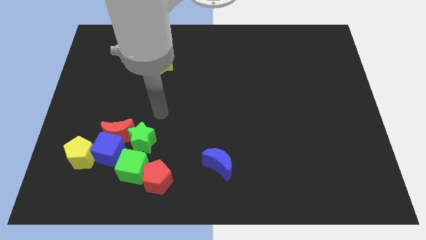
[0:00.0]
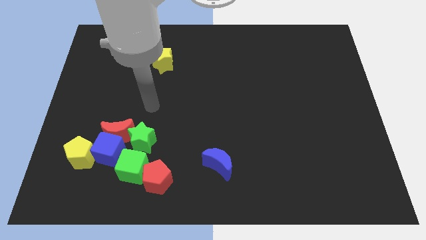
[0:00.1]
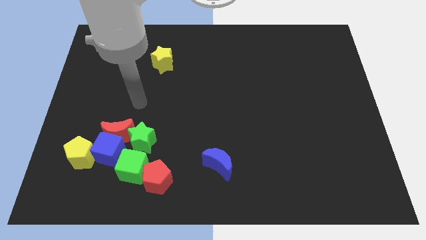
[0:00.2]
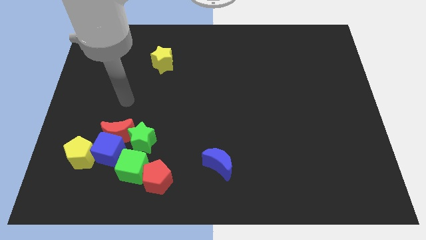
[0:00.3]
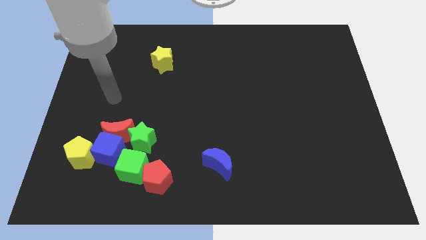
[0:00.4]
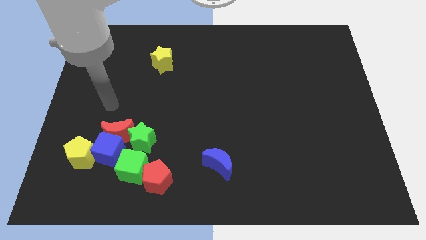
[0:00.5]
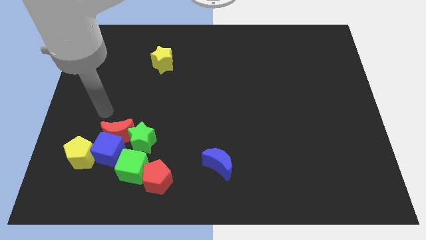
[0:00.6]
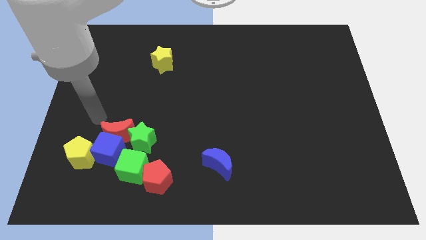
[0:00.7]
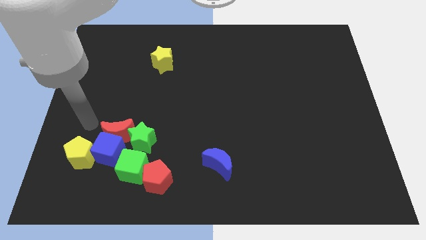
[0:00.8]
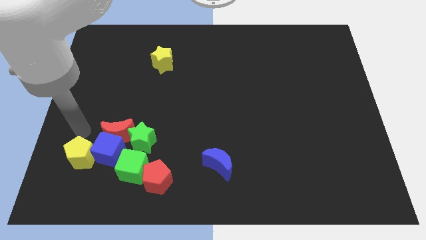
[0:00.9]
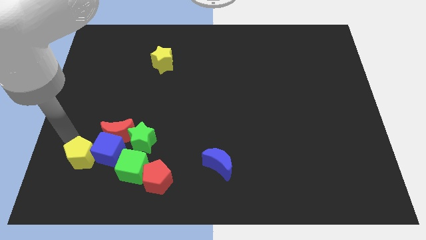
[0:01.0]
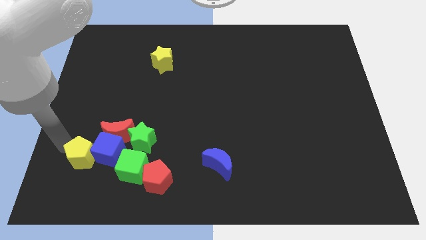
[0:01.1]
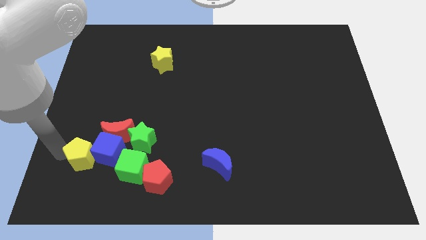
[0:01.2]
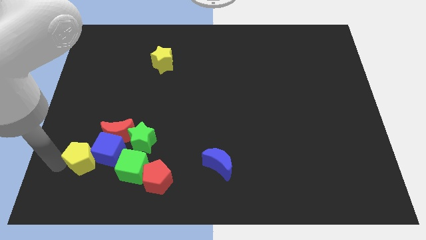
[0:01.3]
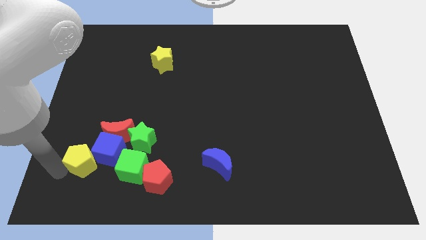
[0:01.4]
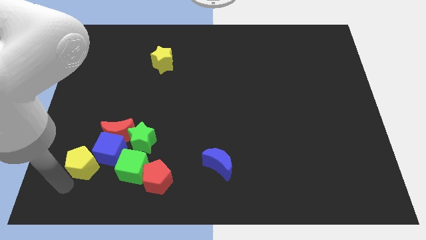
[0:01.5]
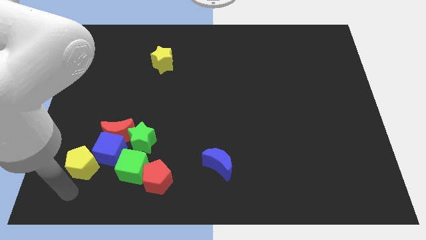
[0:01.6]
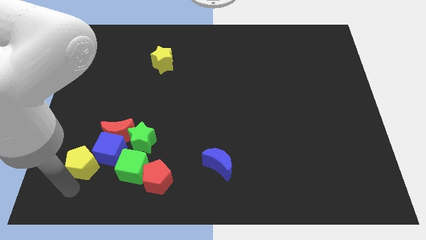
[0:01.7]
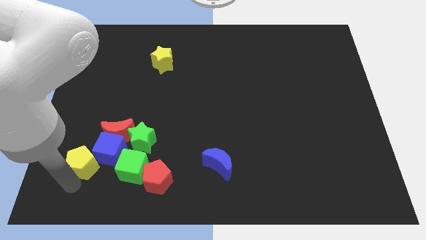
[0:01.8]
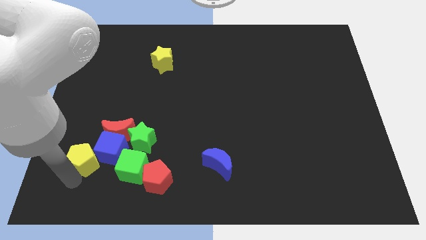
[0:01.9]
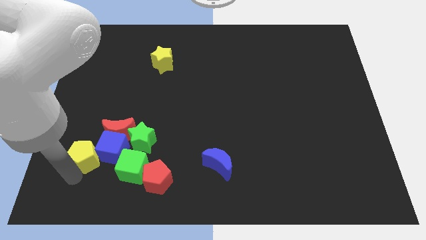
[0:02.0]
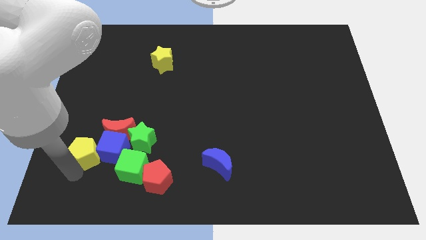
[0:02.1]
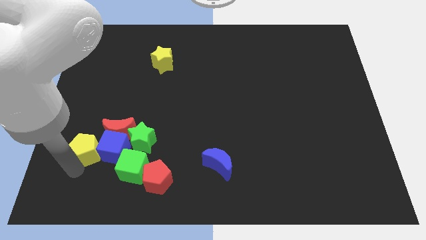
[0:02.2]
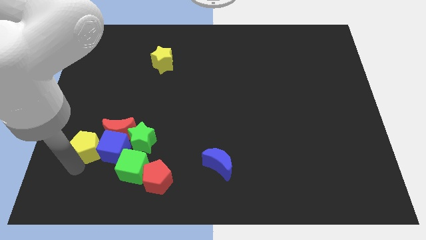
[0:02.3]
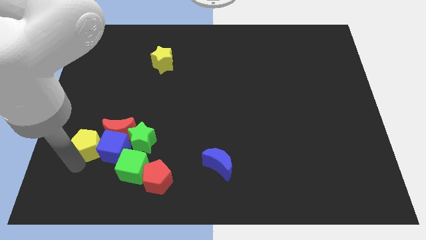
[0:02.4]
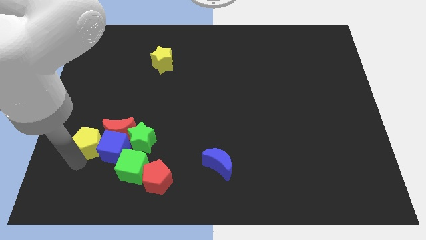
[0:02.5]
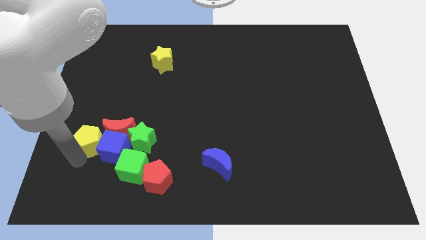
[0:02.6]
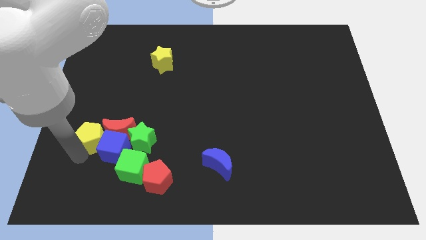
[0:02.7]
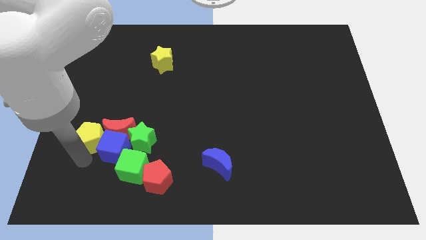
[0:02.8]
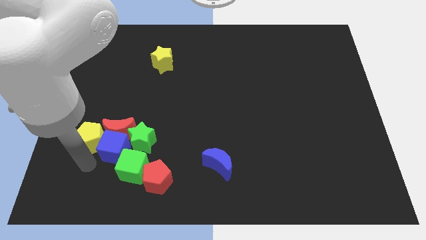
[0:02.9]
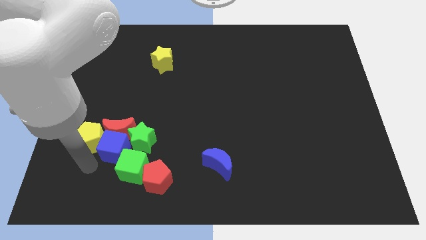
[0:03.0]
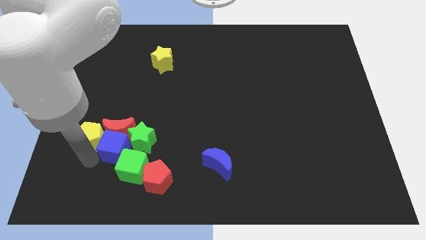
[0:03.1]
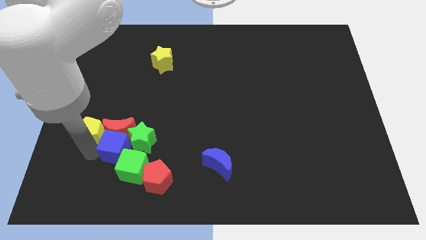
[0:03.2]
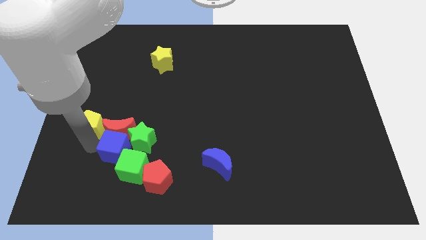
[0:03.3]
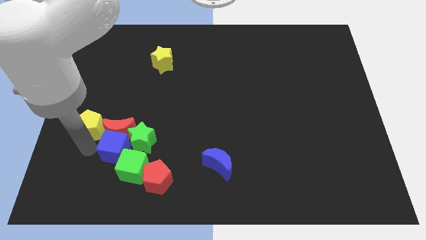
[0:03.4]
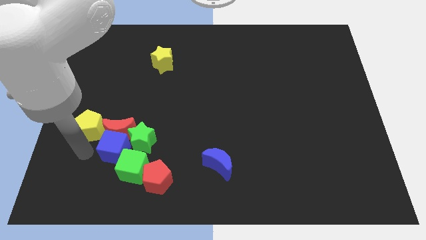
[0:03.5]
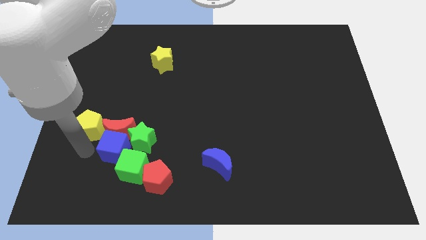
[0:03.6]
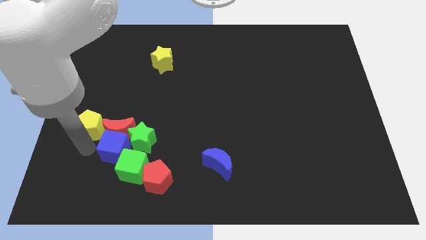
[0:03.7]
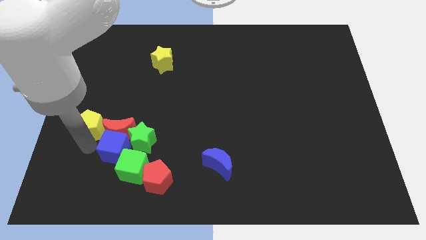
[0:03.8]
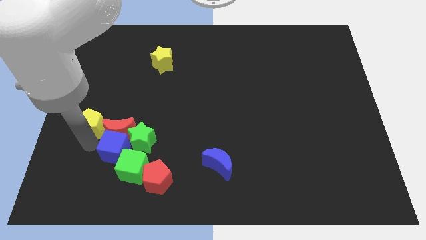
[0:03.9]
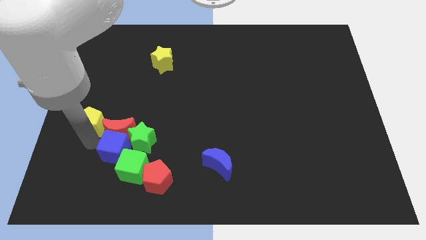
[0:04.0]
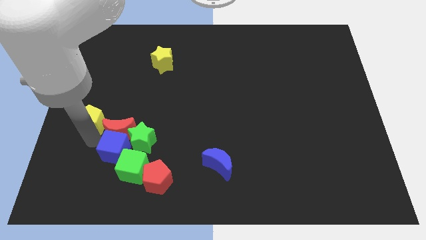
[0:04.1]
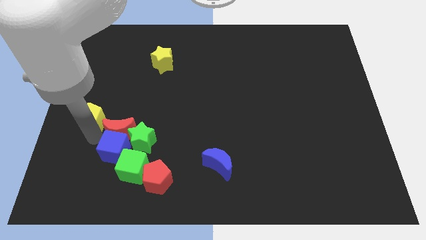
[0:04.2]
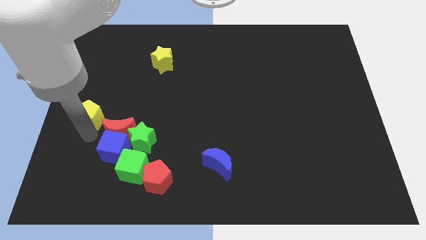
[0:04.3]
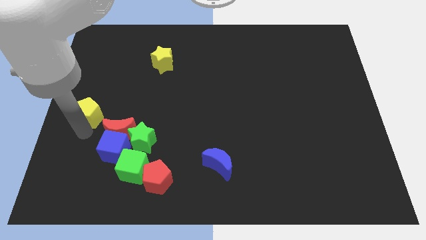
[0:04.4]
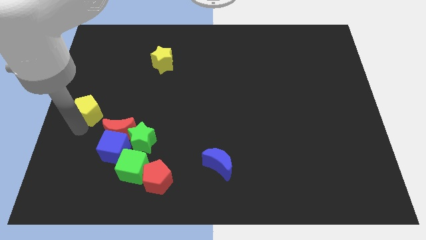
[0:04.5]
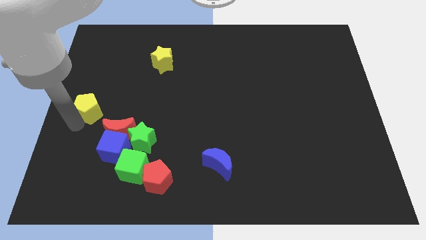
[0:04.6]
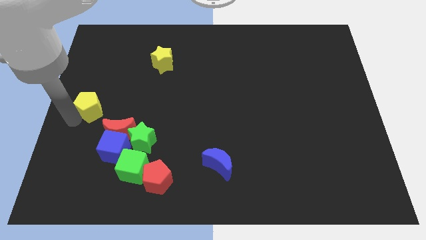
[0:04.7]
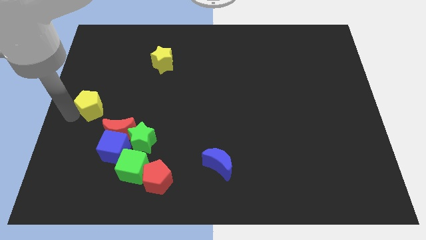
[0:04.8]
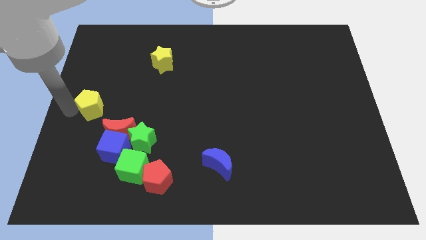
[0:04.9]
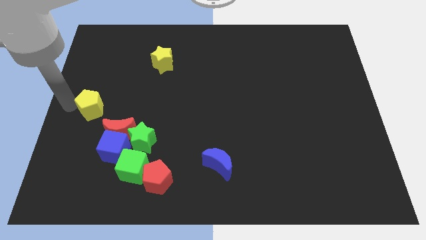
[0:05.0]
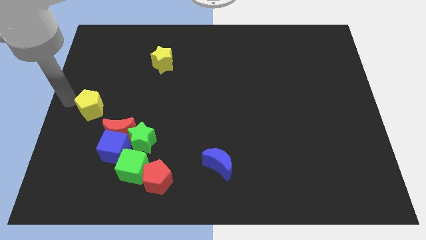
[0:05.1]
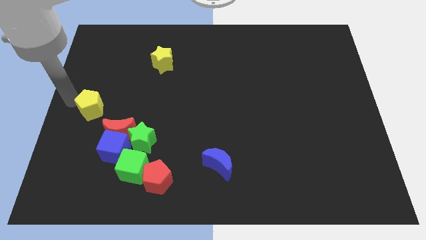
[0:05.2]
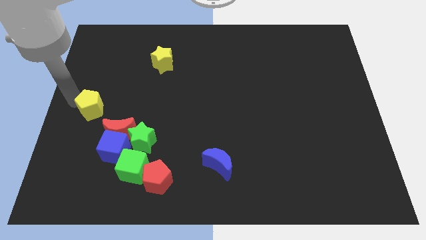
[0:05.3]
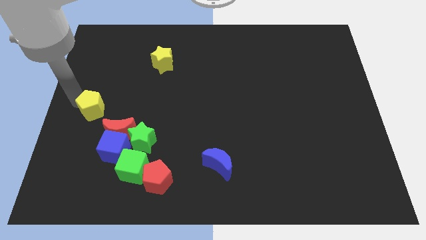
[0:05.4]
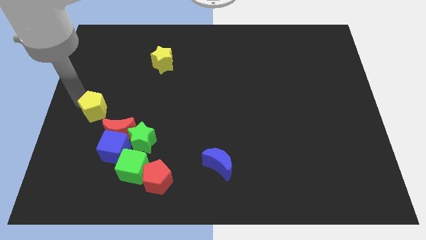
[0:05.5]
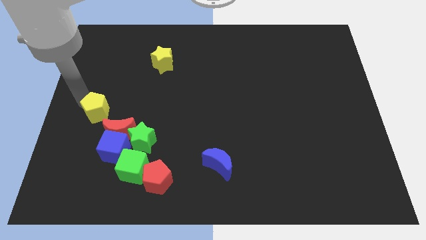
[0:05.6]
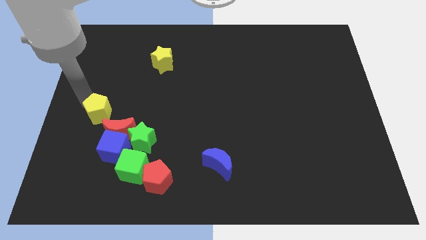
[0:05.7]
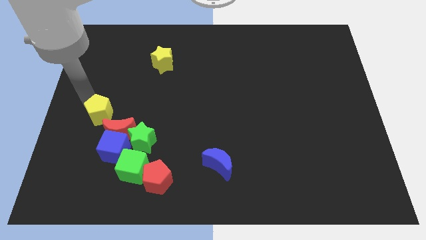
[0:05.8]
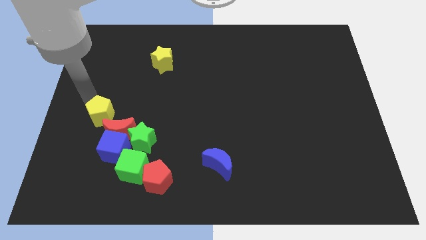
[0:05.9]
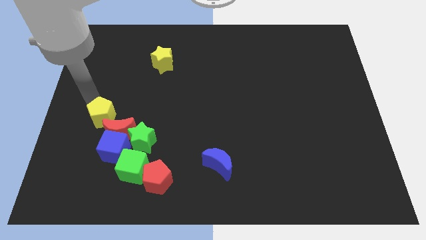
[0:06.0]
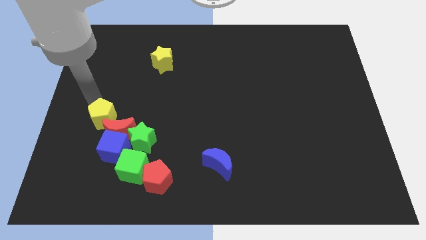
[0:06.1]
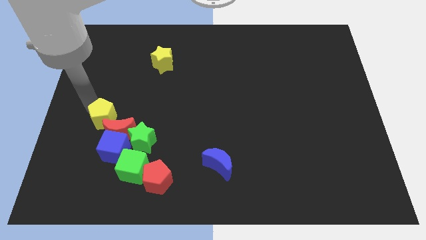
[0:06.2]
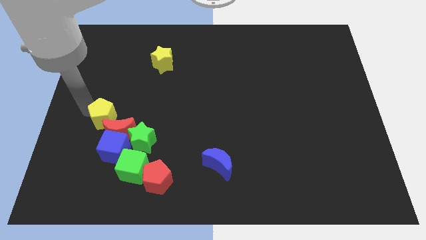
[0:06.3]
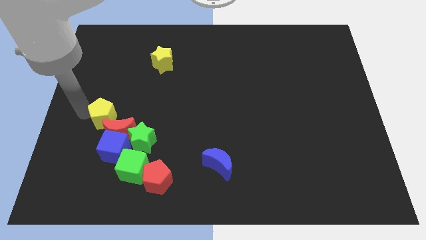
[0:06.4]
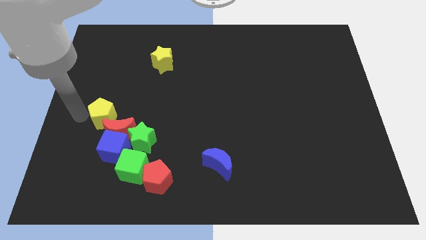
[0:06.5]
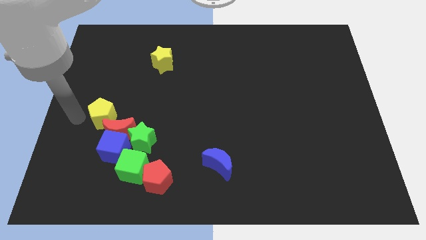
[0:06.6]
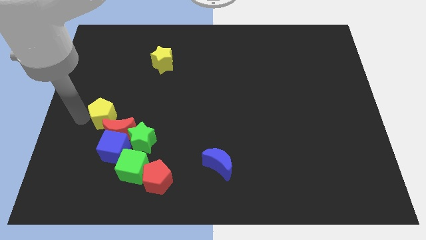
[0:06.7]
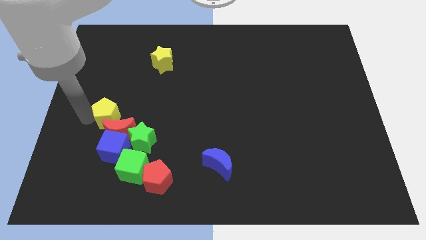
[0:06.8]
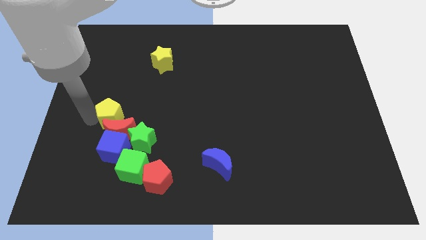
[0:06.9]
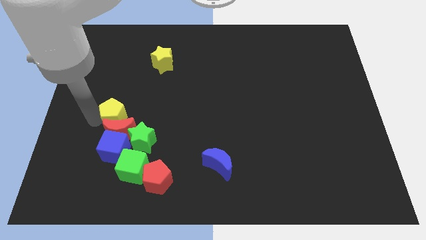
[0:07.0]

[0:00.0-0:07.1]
move the yellow pentagon to the top right of the red moon

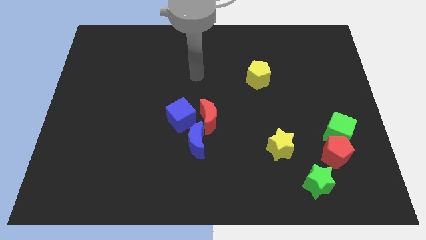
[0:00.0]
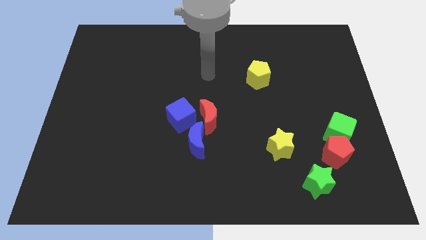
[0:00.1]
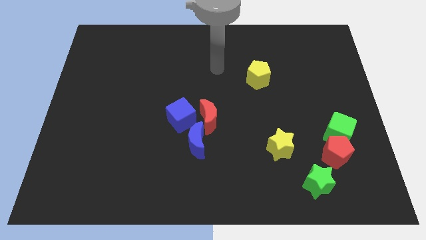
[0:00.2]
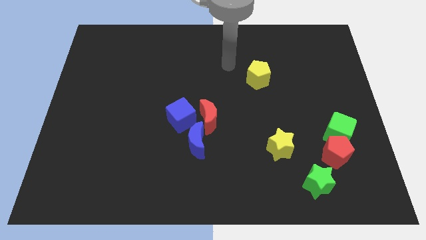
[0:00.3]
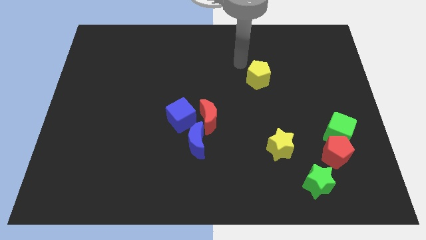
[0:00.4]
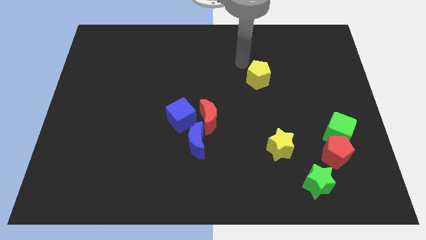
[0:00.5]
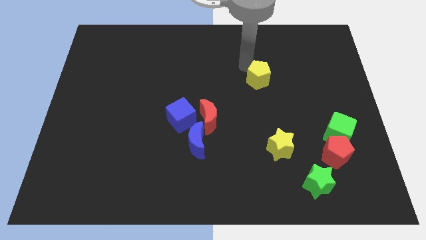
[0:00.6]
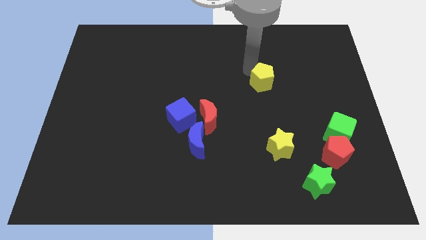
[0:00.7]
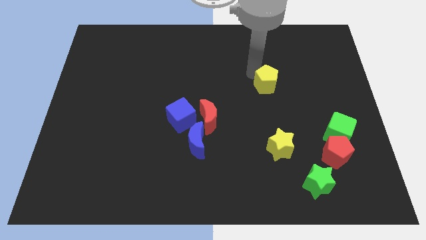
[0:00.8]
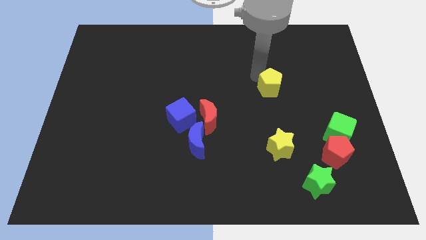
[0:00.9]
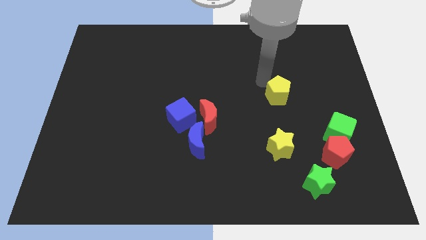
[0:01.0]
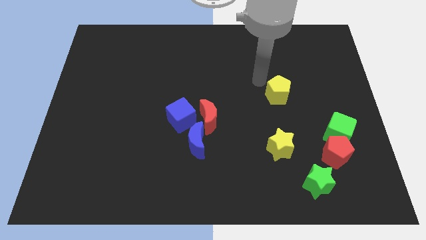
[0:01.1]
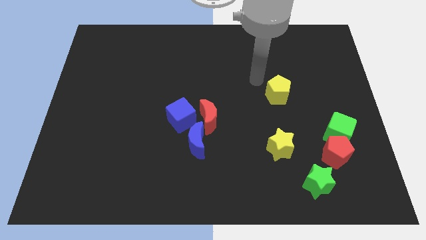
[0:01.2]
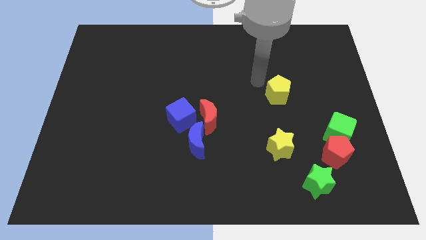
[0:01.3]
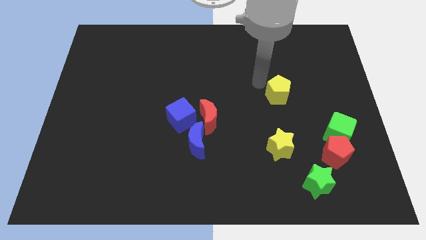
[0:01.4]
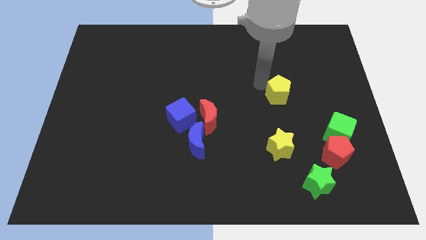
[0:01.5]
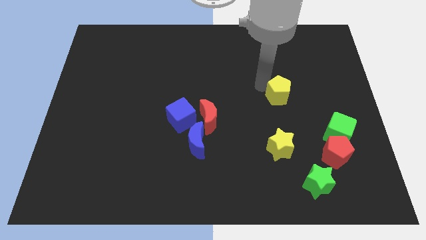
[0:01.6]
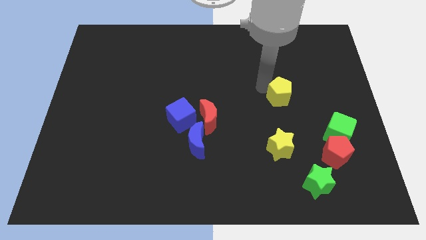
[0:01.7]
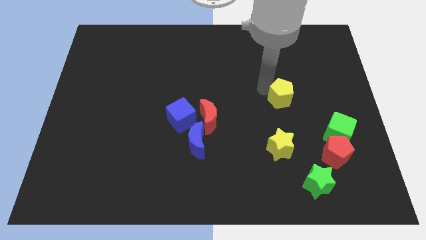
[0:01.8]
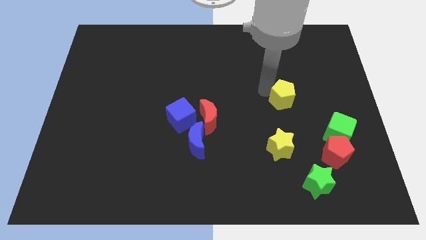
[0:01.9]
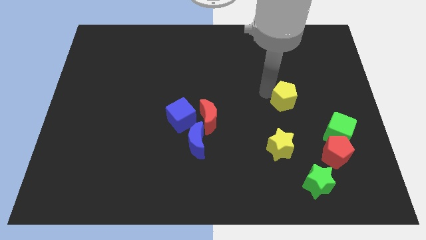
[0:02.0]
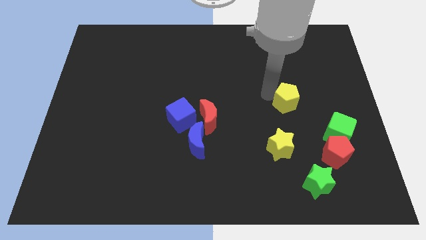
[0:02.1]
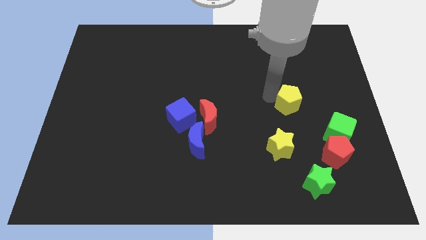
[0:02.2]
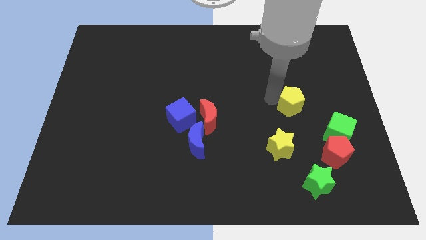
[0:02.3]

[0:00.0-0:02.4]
put the yellow pentagon to the top left side of the green cube
